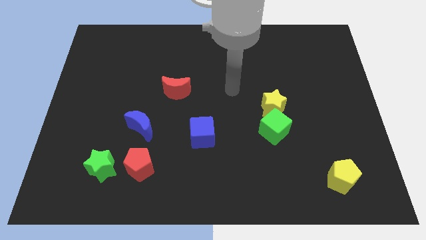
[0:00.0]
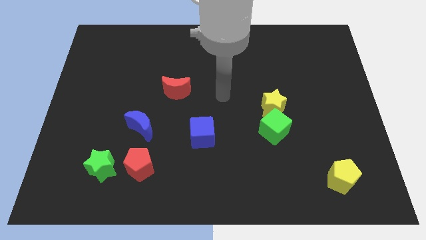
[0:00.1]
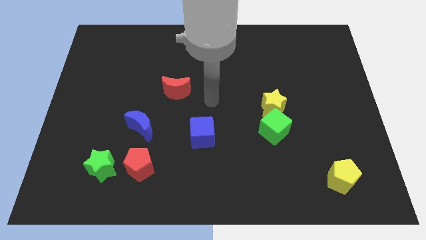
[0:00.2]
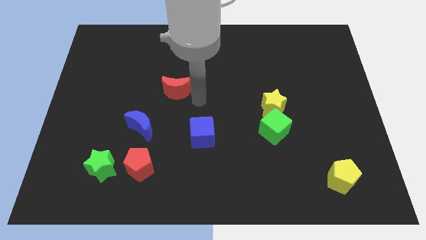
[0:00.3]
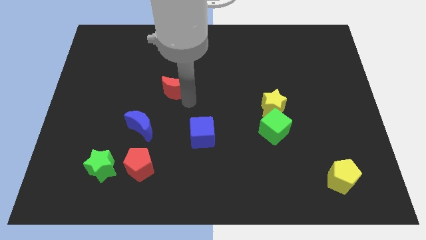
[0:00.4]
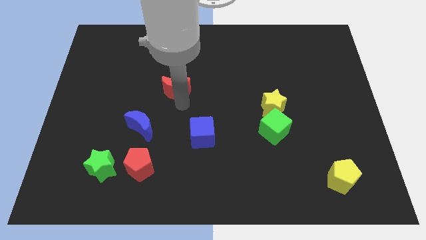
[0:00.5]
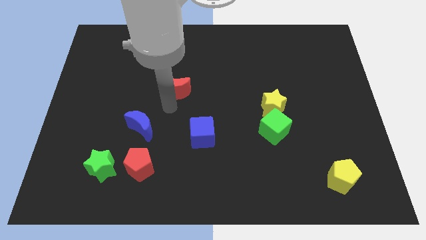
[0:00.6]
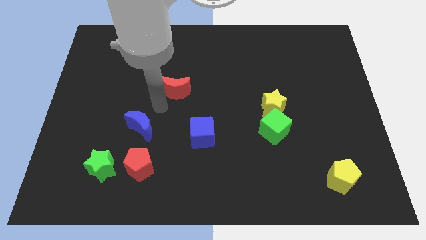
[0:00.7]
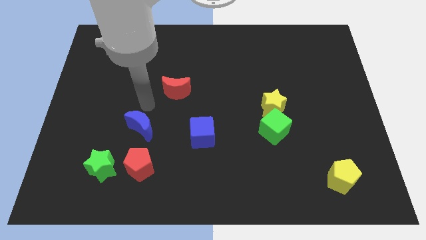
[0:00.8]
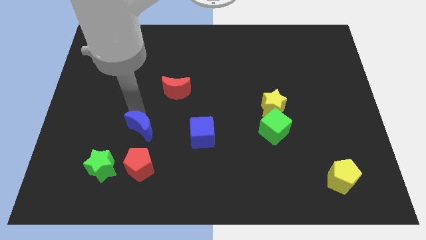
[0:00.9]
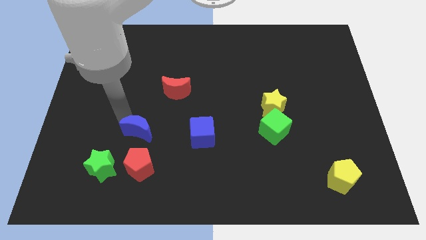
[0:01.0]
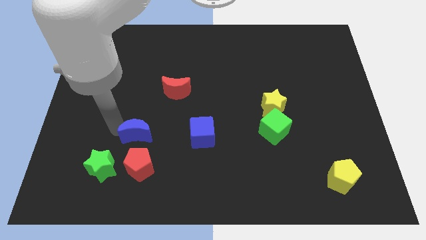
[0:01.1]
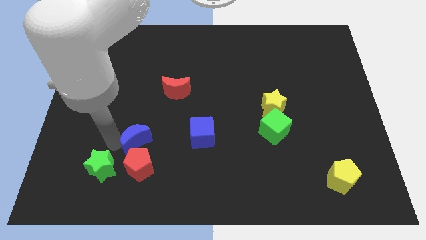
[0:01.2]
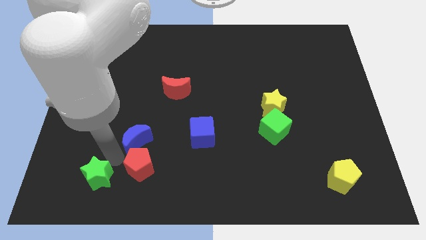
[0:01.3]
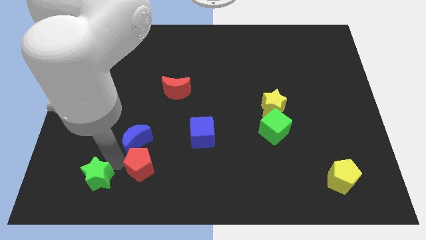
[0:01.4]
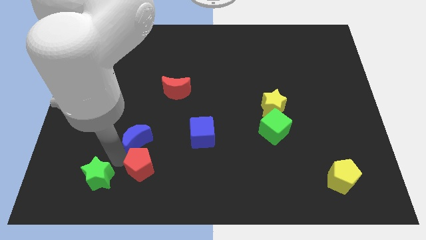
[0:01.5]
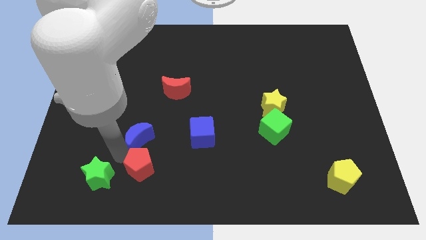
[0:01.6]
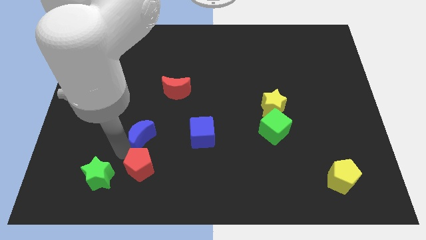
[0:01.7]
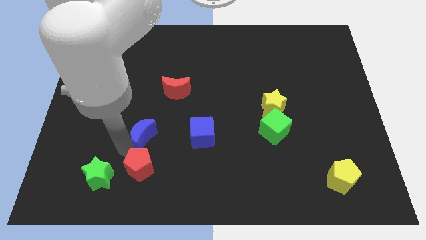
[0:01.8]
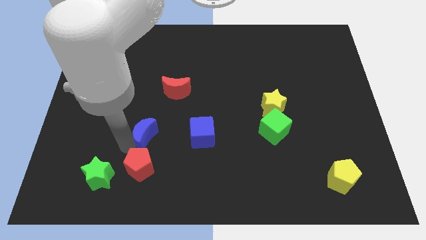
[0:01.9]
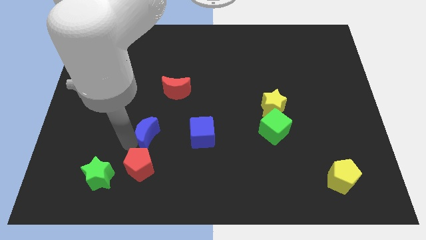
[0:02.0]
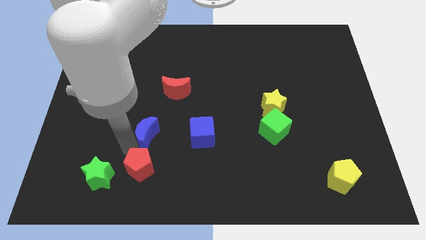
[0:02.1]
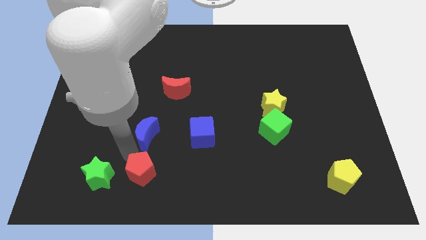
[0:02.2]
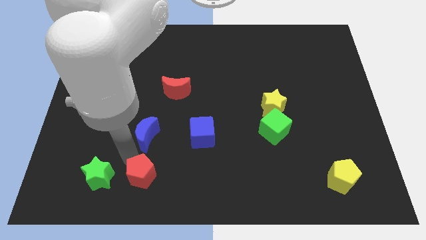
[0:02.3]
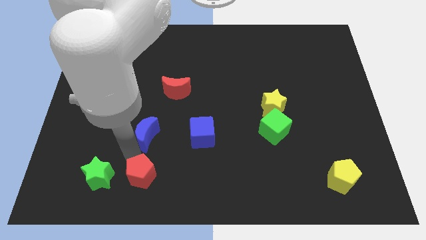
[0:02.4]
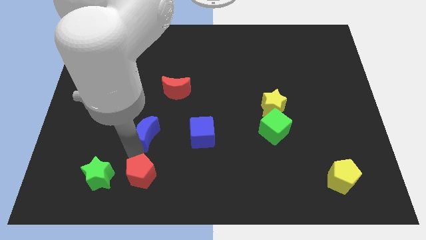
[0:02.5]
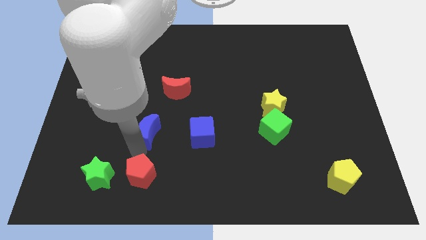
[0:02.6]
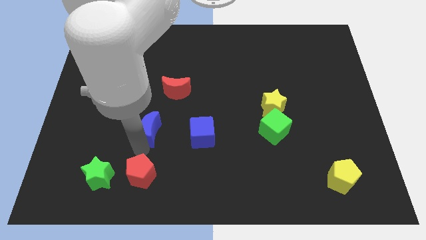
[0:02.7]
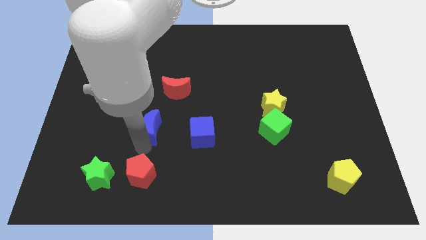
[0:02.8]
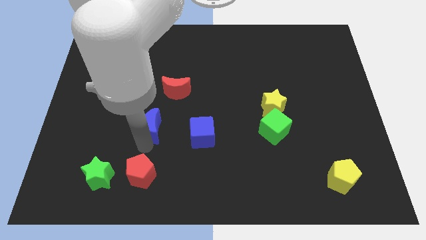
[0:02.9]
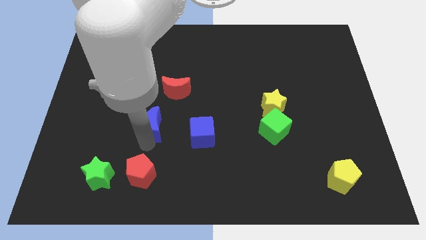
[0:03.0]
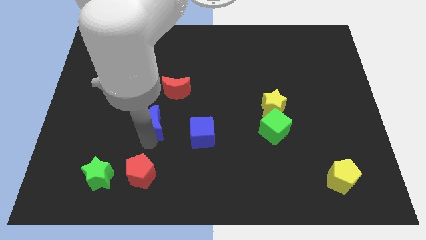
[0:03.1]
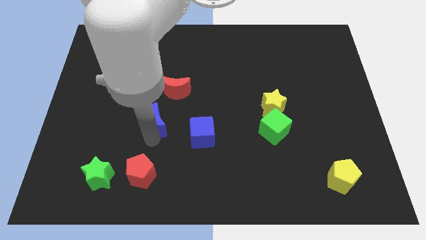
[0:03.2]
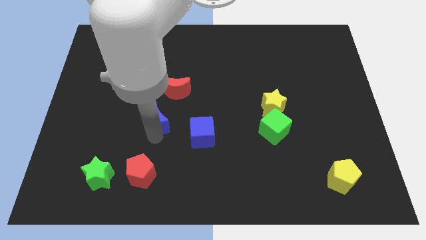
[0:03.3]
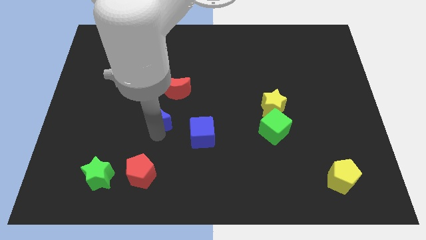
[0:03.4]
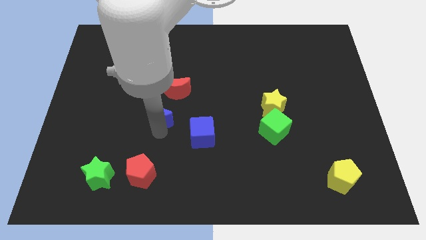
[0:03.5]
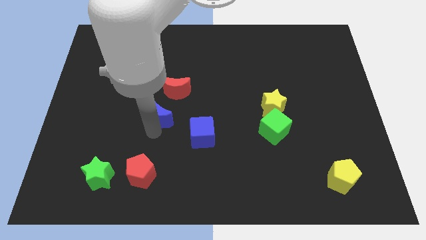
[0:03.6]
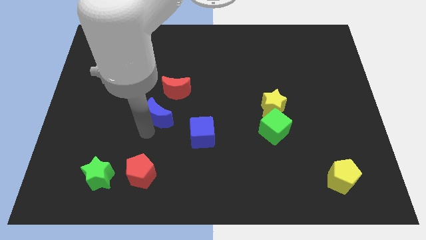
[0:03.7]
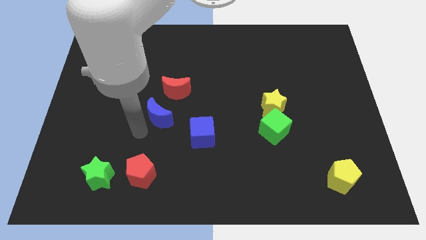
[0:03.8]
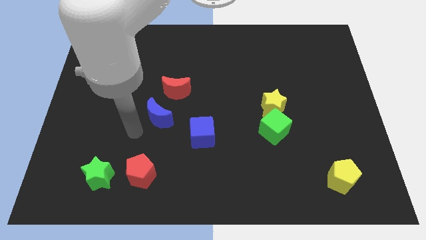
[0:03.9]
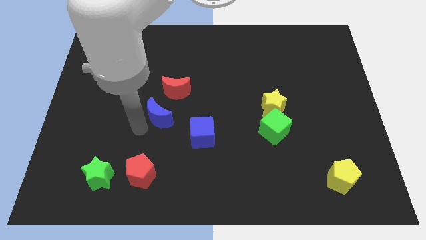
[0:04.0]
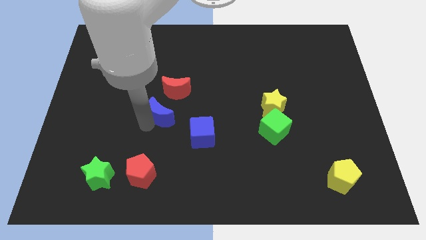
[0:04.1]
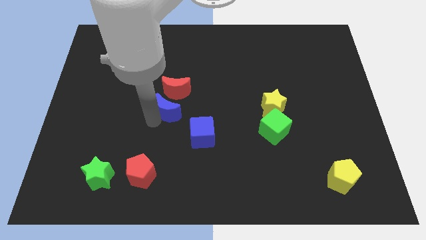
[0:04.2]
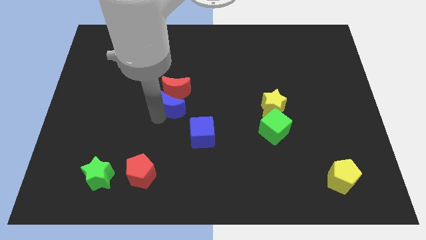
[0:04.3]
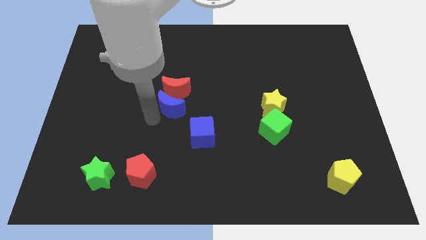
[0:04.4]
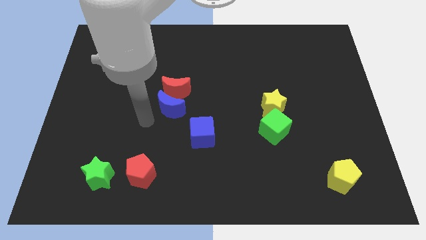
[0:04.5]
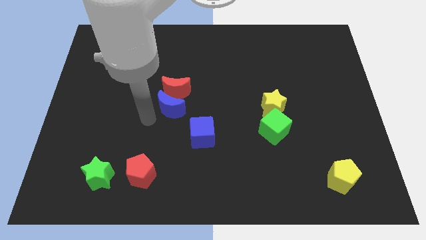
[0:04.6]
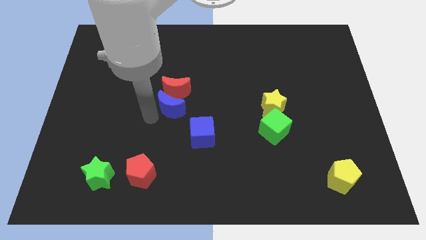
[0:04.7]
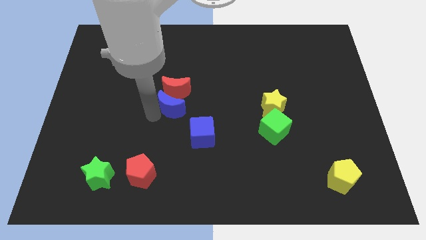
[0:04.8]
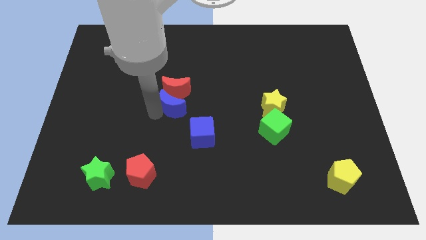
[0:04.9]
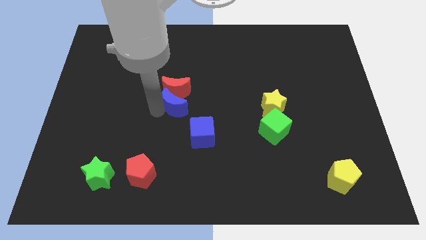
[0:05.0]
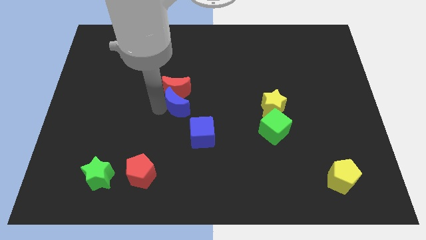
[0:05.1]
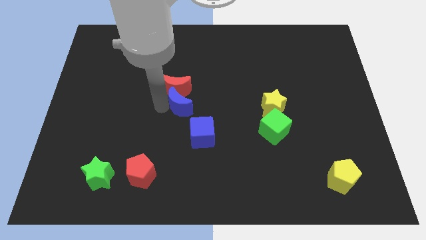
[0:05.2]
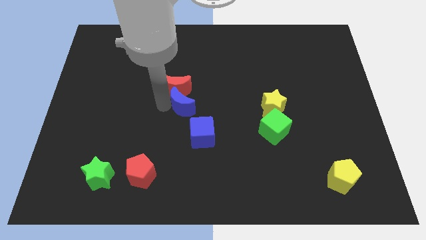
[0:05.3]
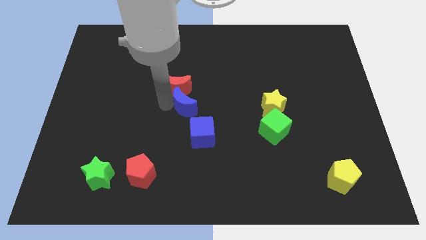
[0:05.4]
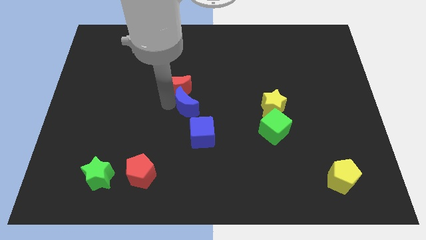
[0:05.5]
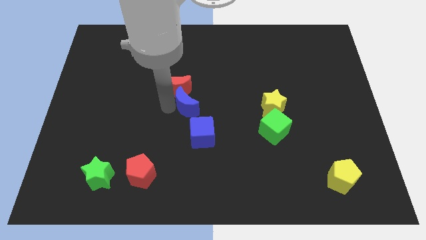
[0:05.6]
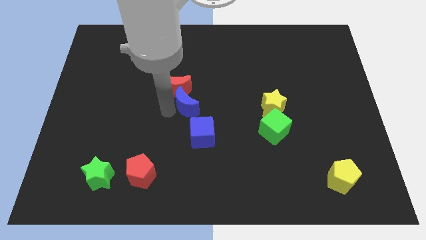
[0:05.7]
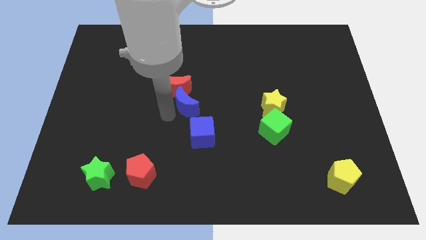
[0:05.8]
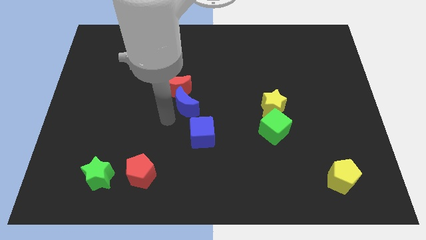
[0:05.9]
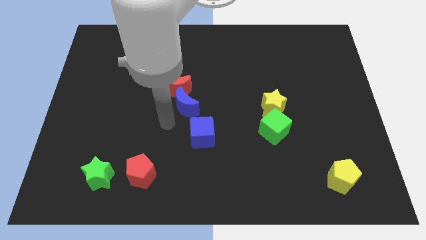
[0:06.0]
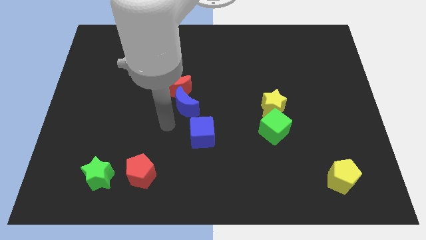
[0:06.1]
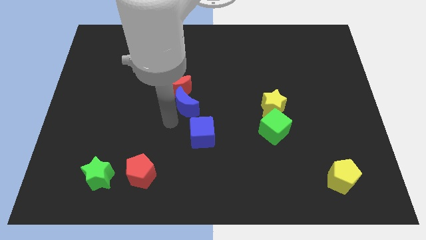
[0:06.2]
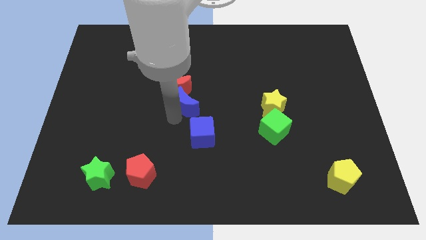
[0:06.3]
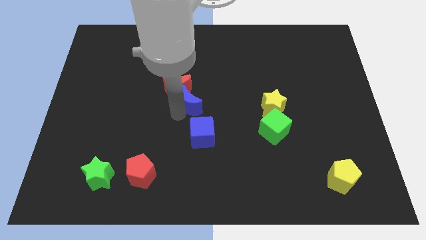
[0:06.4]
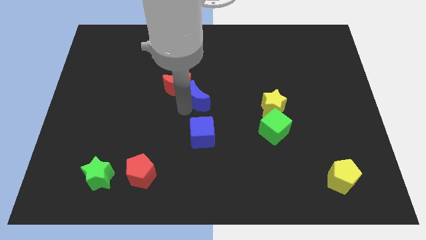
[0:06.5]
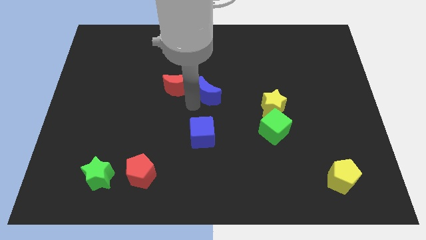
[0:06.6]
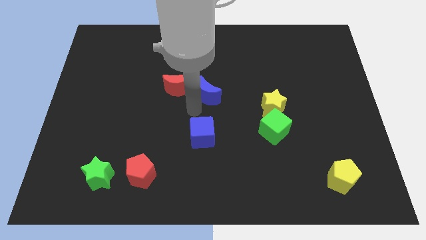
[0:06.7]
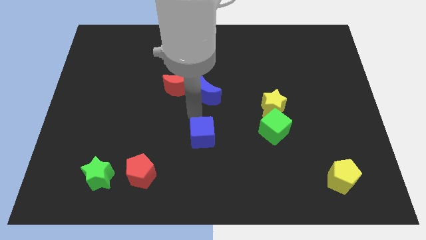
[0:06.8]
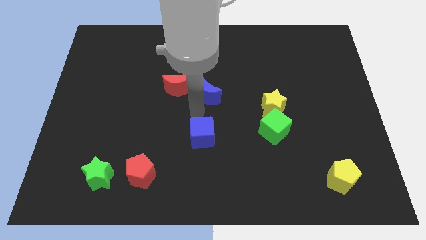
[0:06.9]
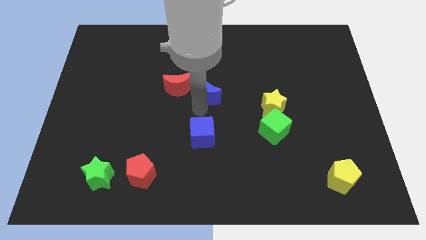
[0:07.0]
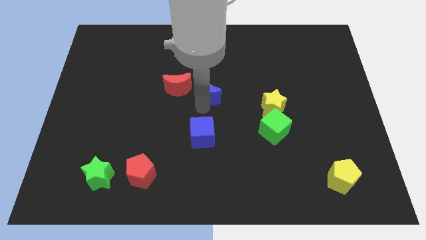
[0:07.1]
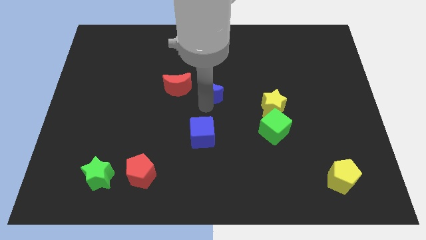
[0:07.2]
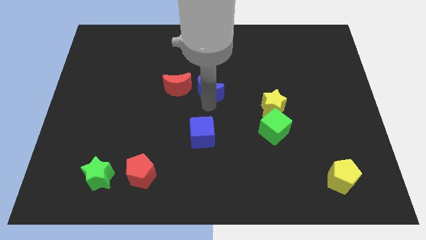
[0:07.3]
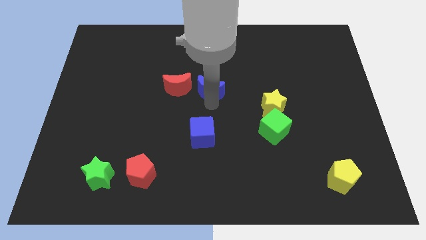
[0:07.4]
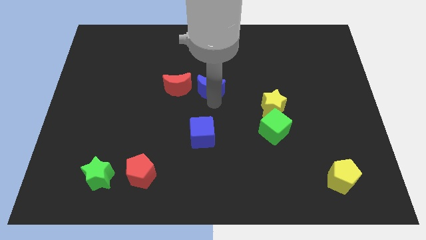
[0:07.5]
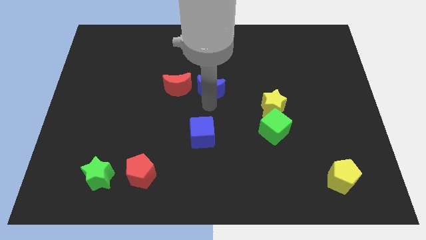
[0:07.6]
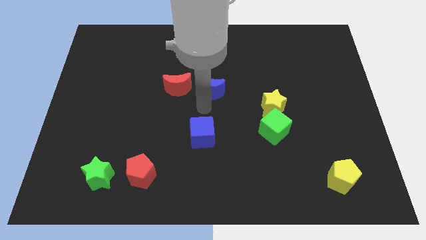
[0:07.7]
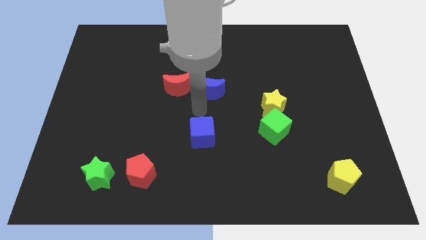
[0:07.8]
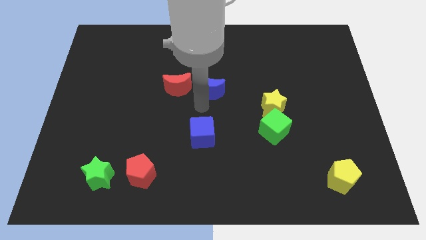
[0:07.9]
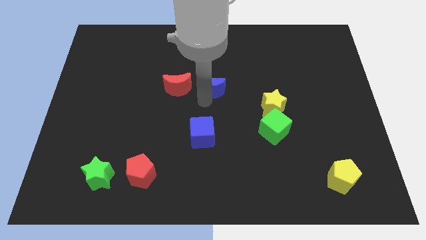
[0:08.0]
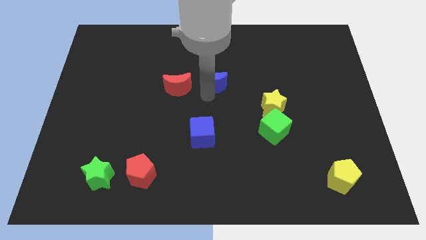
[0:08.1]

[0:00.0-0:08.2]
push the blue moon up and then right
